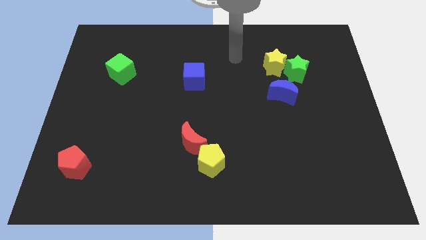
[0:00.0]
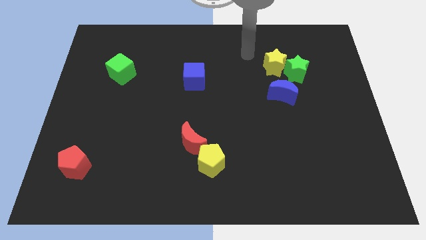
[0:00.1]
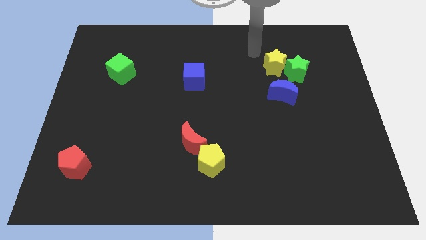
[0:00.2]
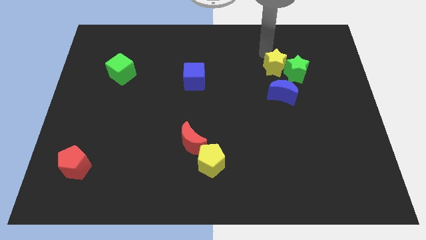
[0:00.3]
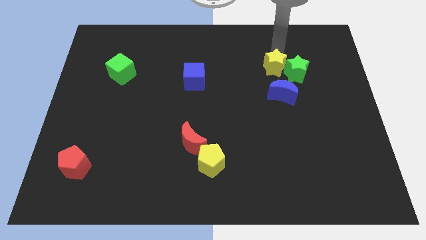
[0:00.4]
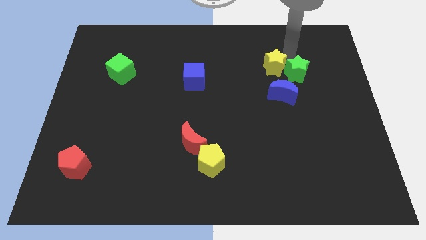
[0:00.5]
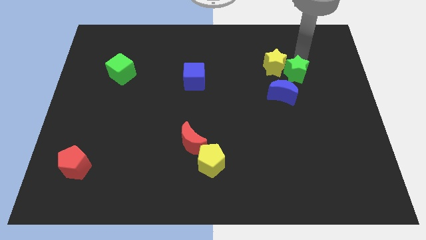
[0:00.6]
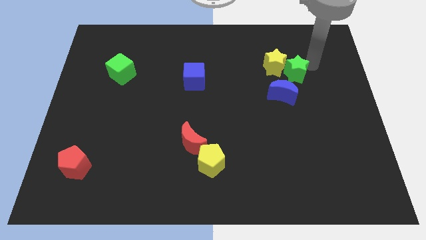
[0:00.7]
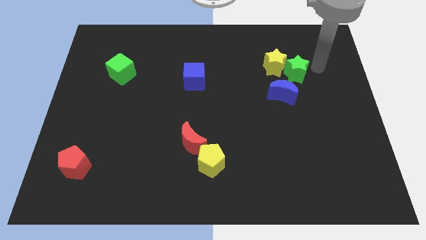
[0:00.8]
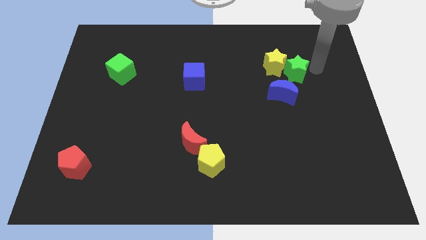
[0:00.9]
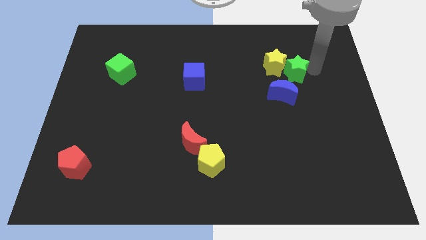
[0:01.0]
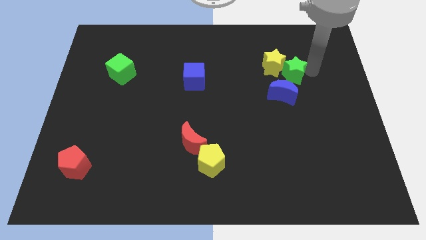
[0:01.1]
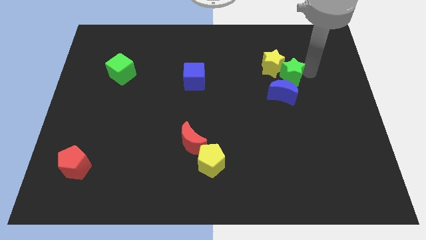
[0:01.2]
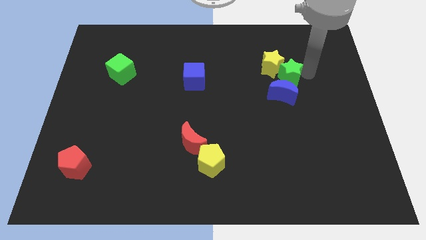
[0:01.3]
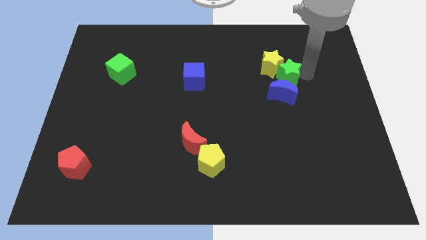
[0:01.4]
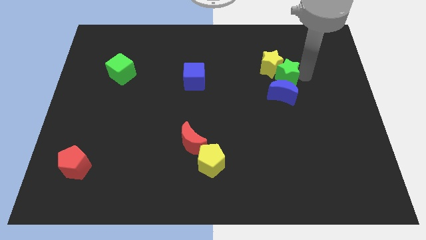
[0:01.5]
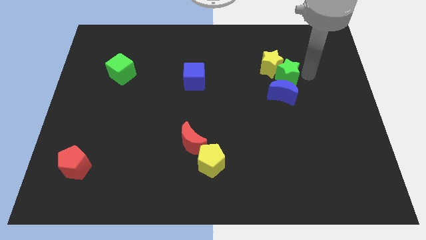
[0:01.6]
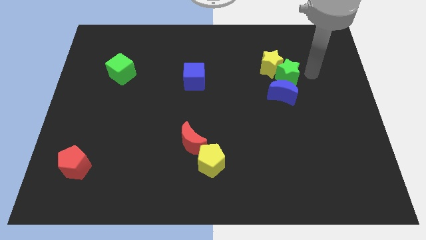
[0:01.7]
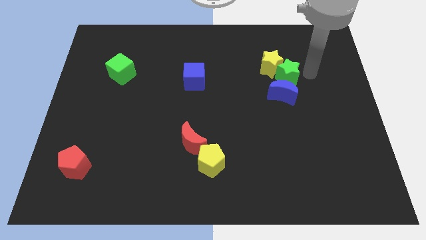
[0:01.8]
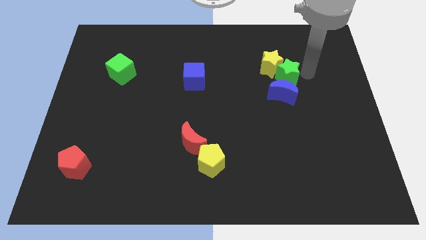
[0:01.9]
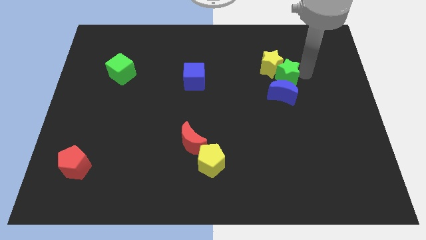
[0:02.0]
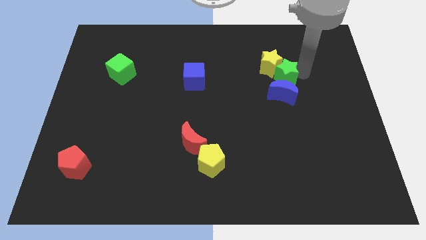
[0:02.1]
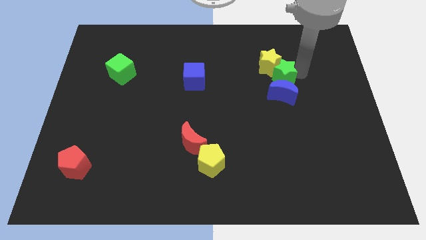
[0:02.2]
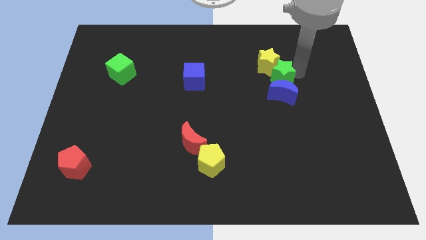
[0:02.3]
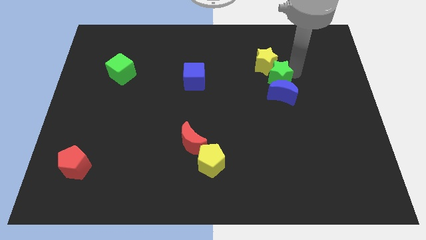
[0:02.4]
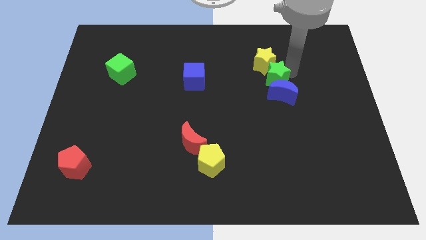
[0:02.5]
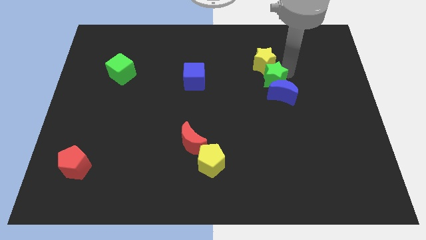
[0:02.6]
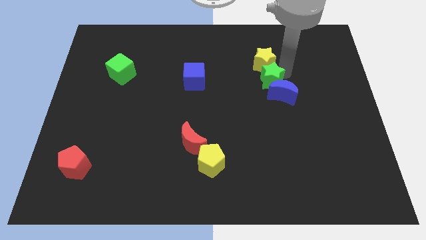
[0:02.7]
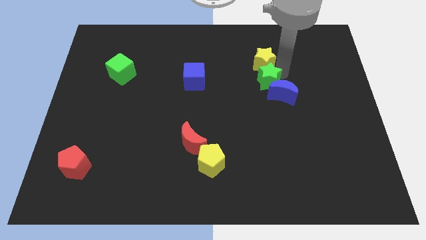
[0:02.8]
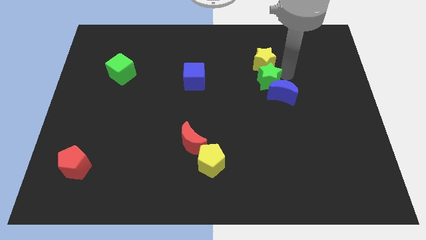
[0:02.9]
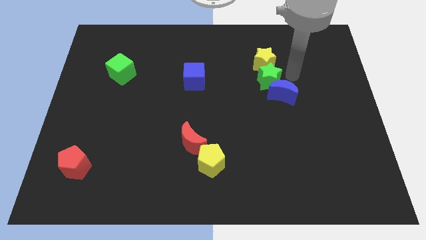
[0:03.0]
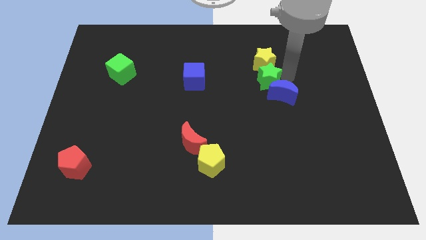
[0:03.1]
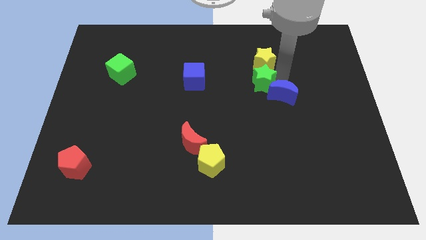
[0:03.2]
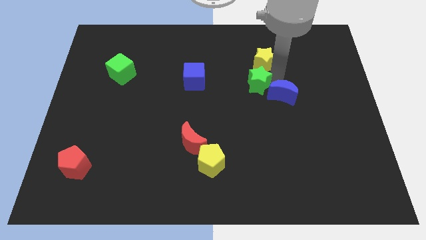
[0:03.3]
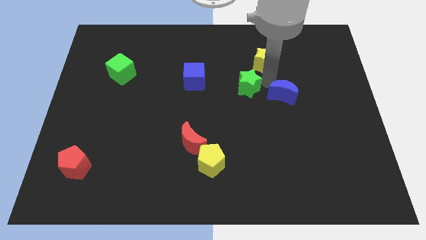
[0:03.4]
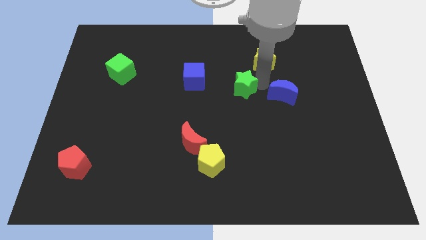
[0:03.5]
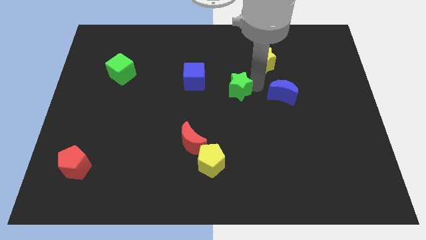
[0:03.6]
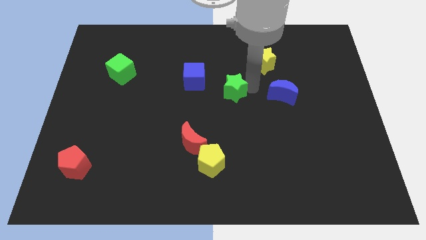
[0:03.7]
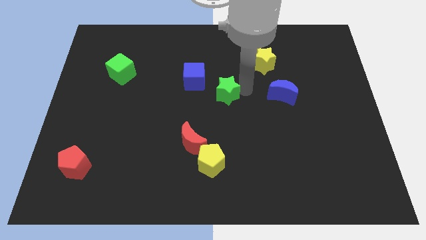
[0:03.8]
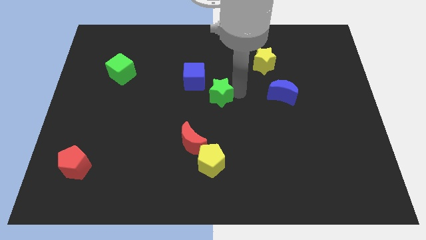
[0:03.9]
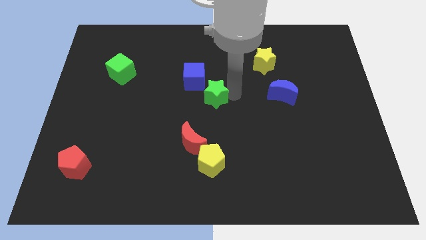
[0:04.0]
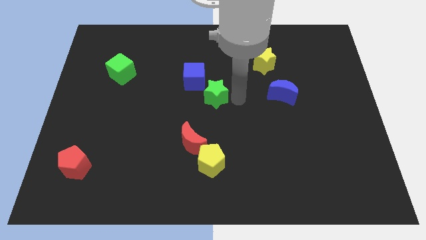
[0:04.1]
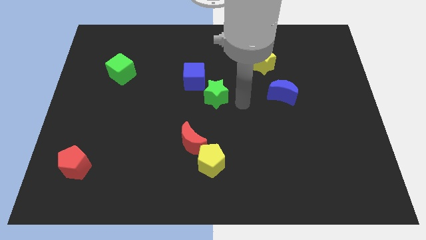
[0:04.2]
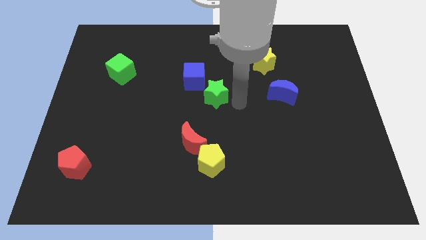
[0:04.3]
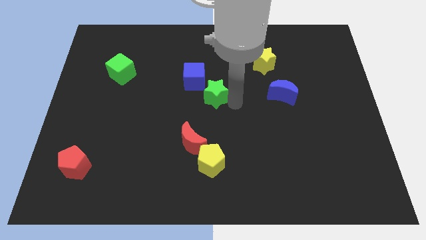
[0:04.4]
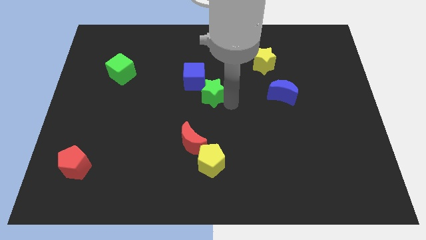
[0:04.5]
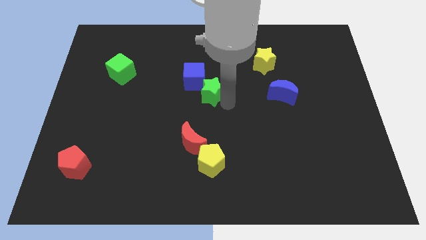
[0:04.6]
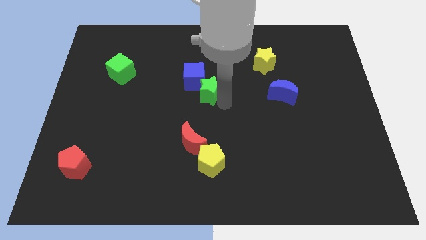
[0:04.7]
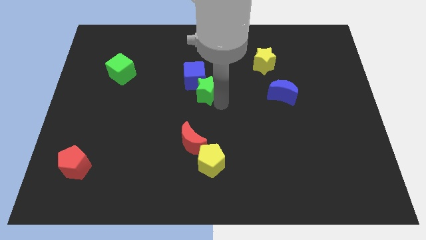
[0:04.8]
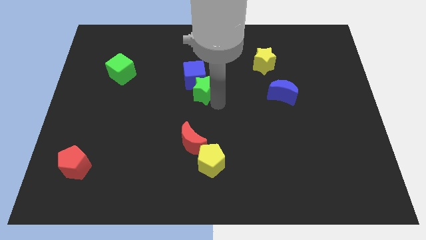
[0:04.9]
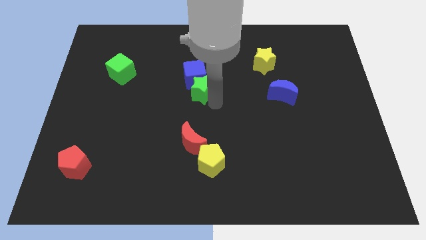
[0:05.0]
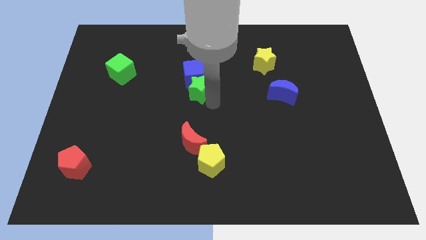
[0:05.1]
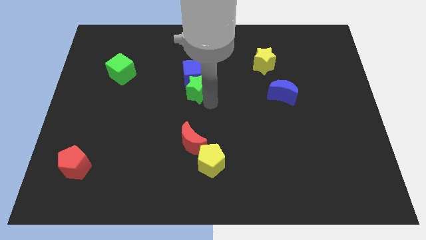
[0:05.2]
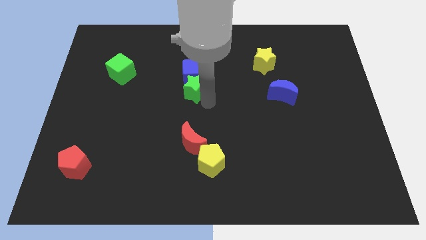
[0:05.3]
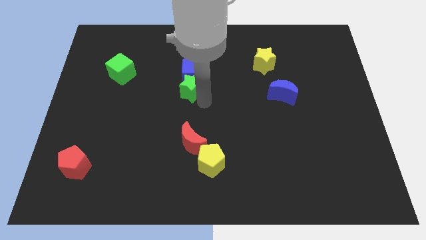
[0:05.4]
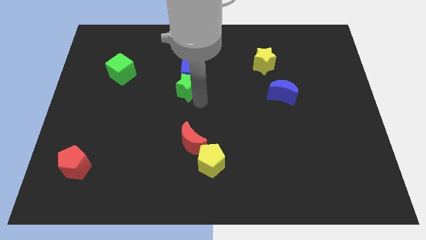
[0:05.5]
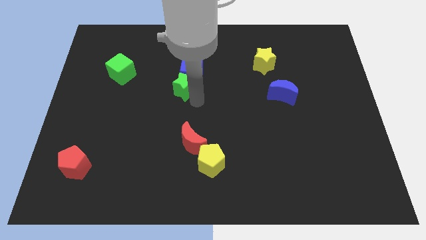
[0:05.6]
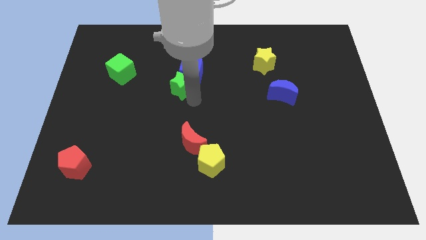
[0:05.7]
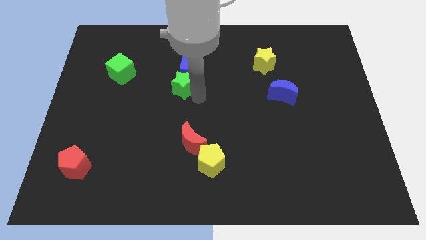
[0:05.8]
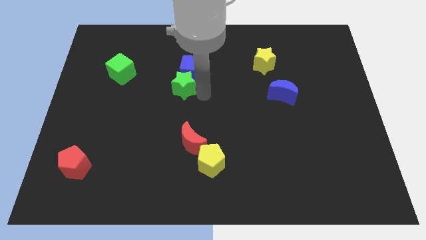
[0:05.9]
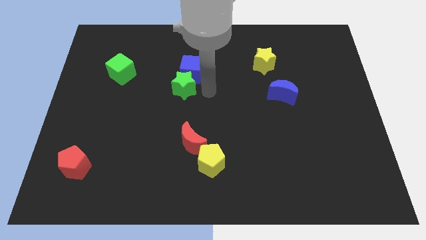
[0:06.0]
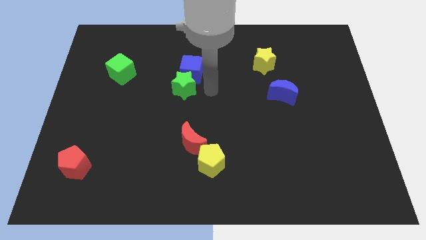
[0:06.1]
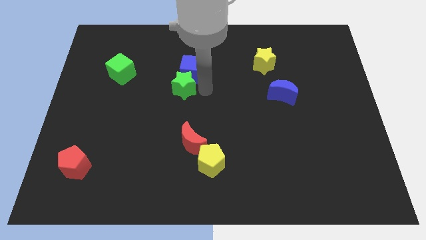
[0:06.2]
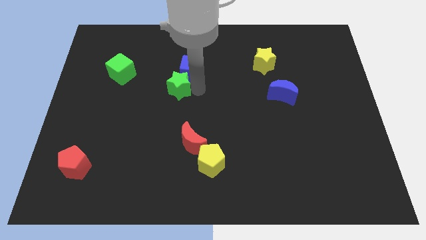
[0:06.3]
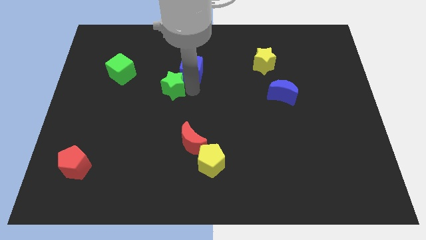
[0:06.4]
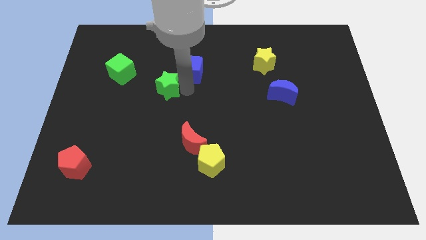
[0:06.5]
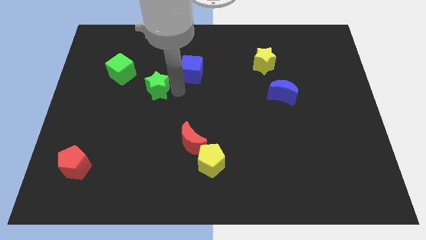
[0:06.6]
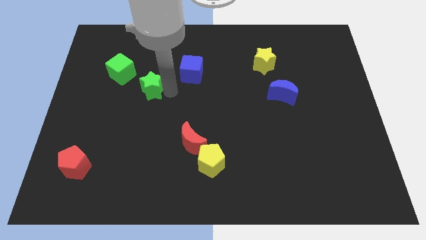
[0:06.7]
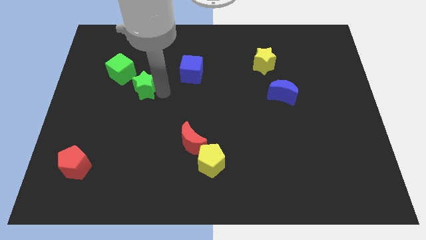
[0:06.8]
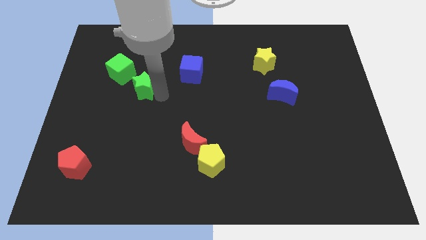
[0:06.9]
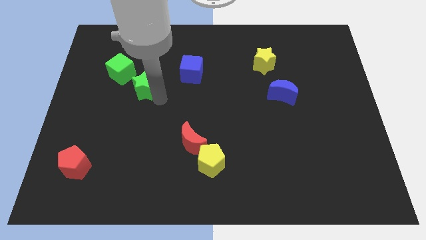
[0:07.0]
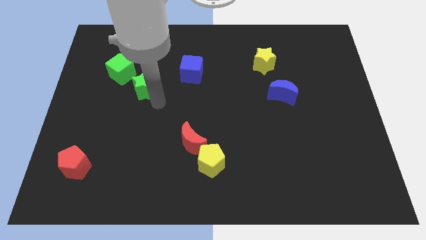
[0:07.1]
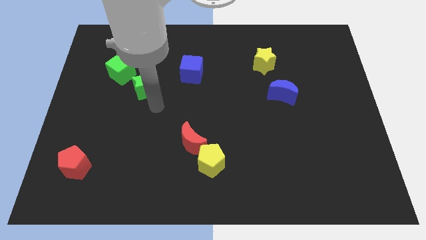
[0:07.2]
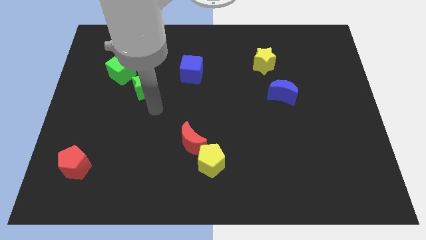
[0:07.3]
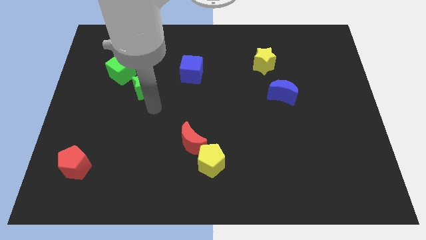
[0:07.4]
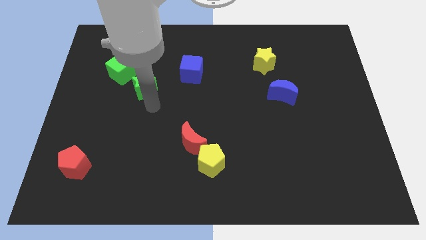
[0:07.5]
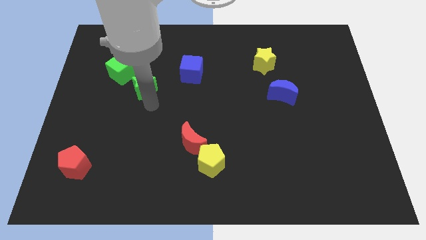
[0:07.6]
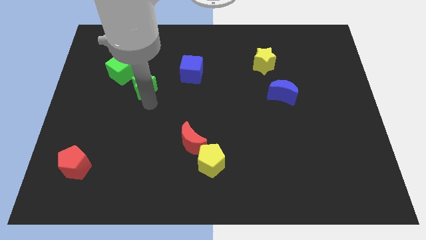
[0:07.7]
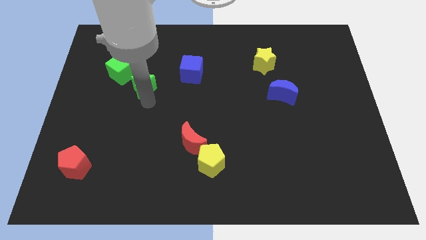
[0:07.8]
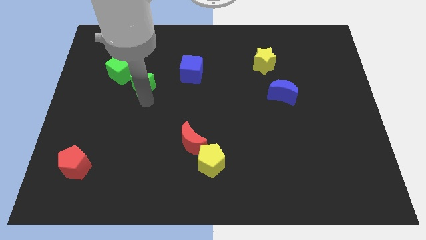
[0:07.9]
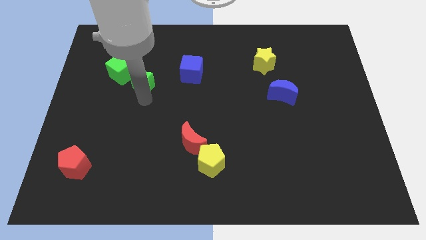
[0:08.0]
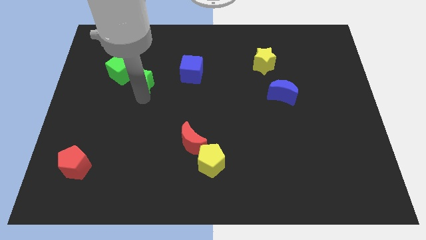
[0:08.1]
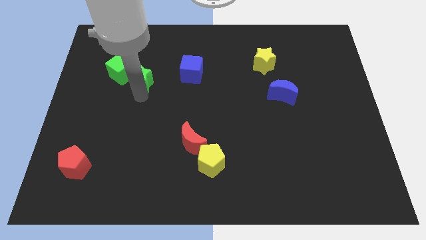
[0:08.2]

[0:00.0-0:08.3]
push the green star close to the green cube
